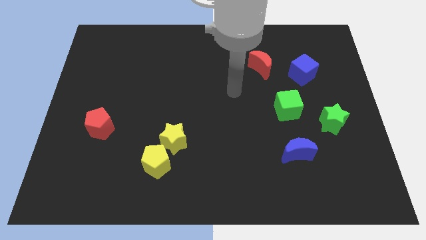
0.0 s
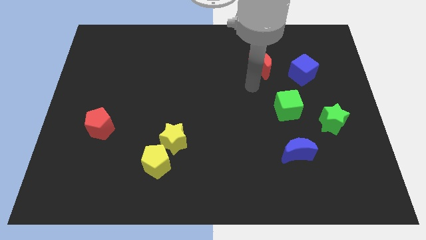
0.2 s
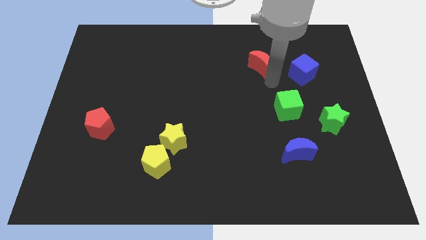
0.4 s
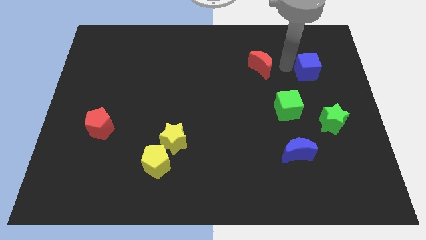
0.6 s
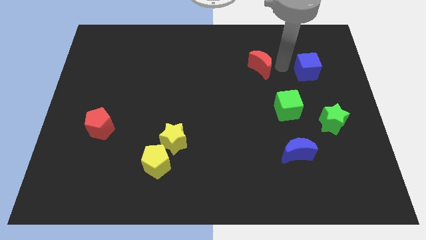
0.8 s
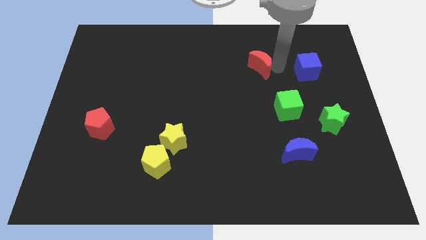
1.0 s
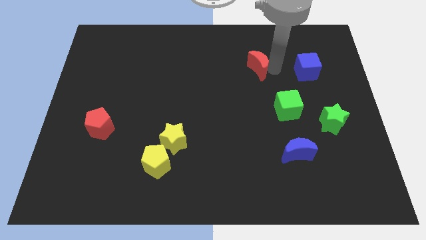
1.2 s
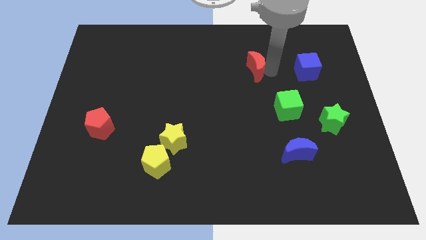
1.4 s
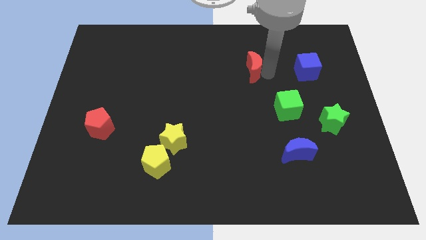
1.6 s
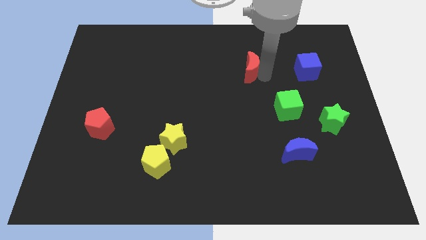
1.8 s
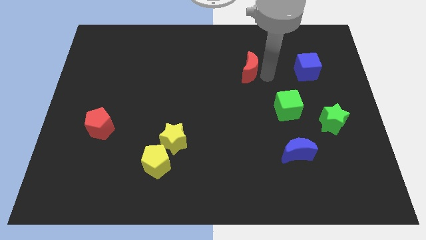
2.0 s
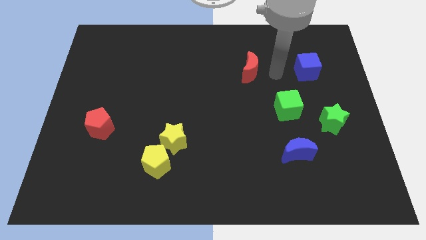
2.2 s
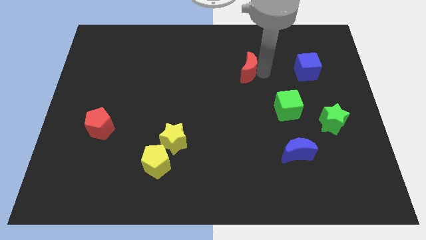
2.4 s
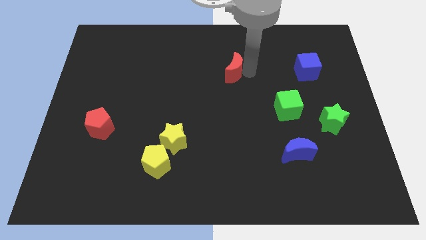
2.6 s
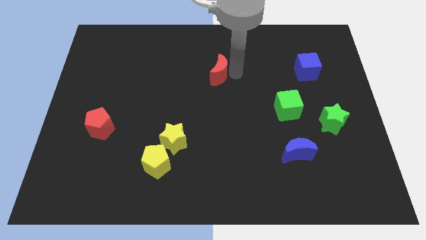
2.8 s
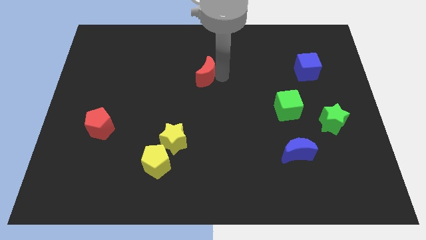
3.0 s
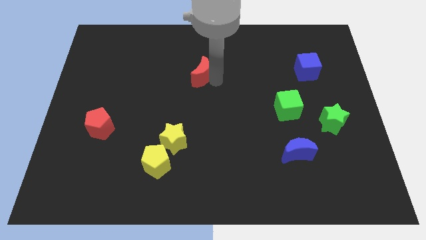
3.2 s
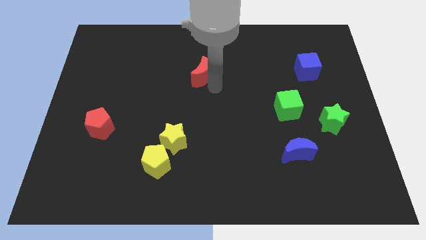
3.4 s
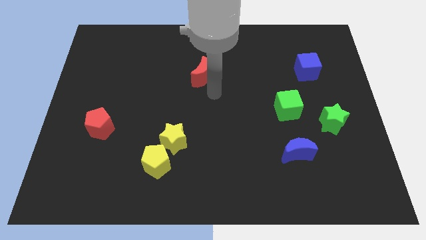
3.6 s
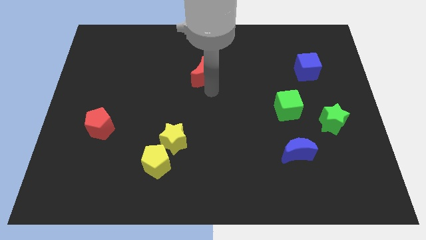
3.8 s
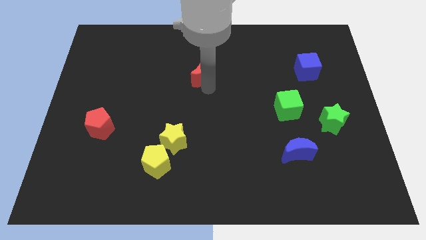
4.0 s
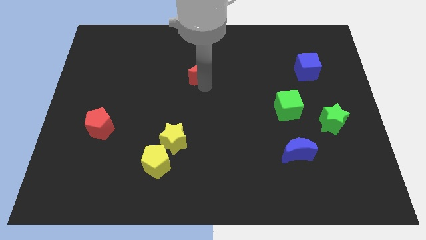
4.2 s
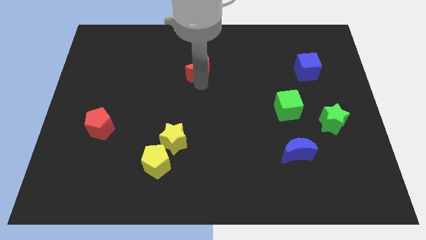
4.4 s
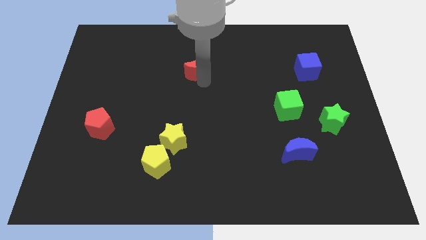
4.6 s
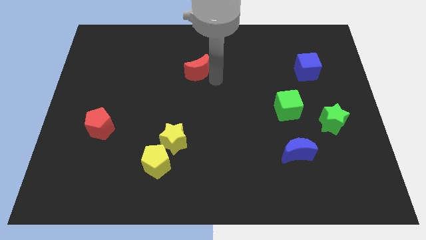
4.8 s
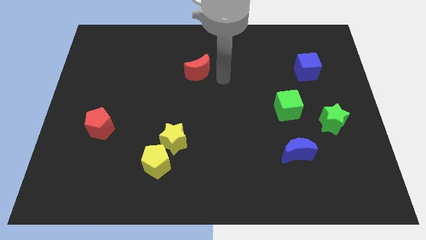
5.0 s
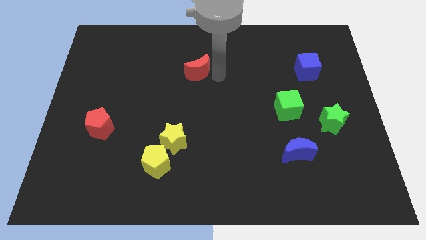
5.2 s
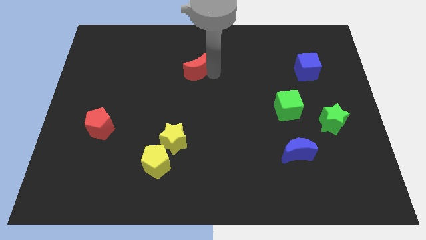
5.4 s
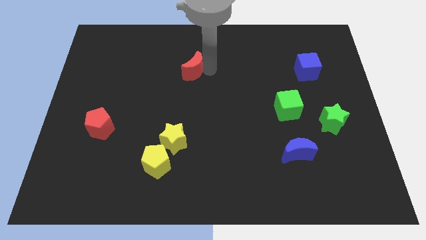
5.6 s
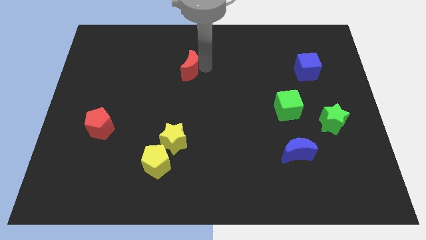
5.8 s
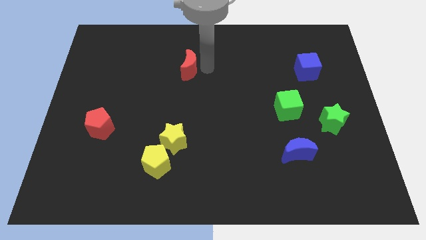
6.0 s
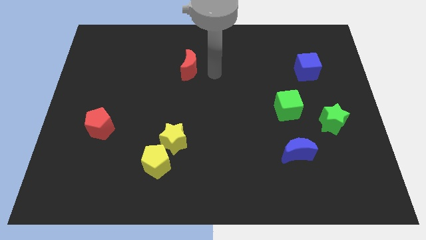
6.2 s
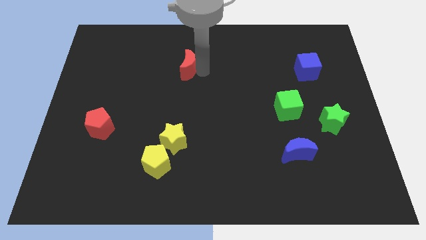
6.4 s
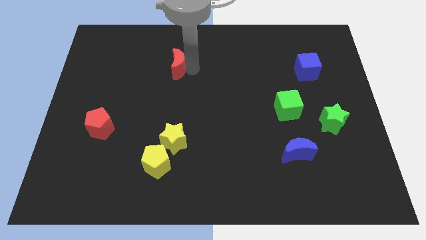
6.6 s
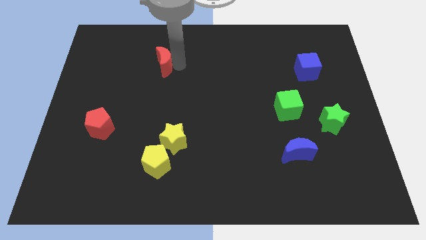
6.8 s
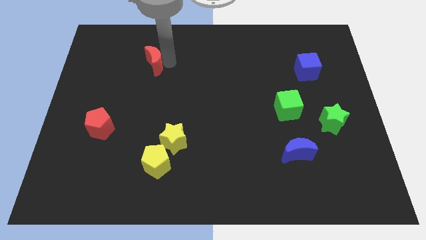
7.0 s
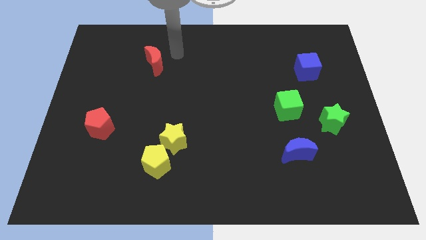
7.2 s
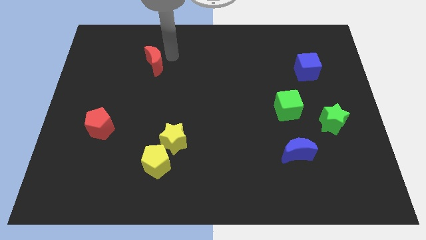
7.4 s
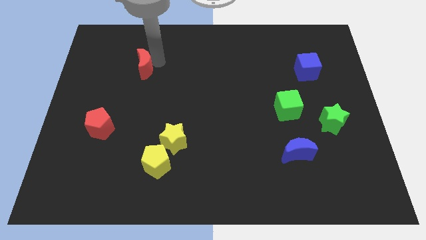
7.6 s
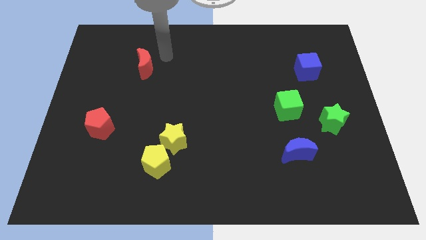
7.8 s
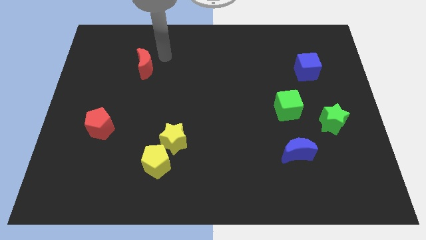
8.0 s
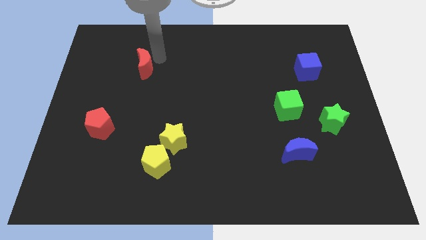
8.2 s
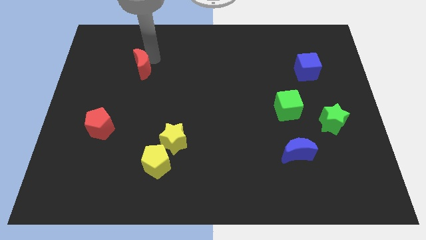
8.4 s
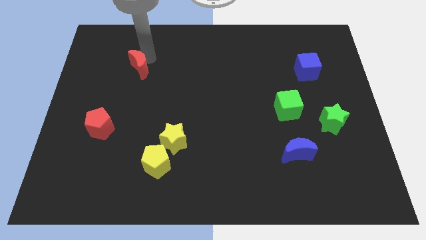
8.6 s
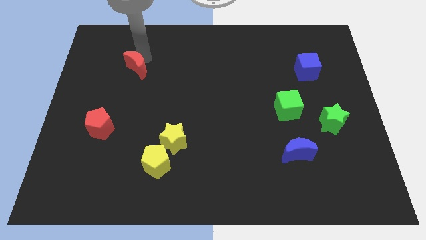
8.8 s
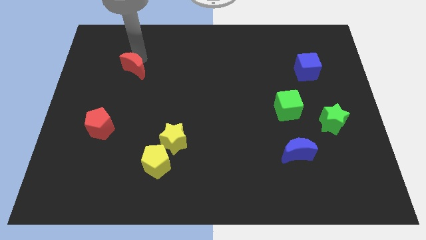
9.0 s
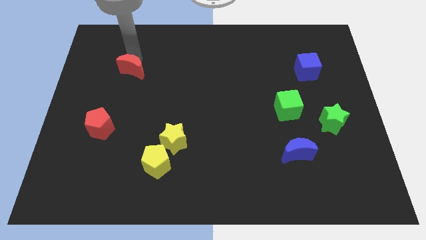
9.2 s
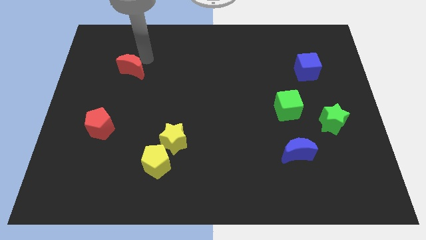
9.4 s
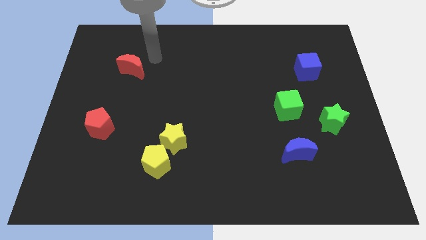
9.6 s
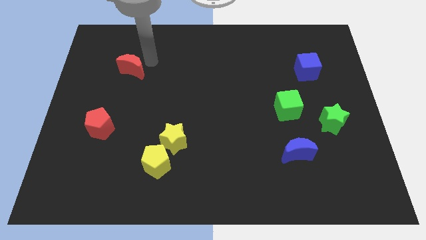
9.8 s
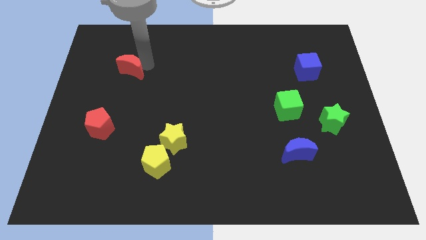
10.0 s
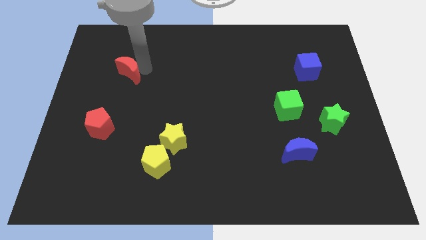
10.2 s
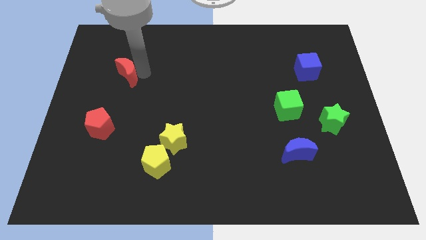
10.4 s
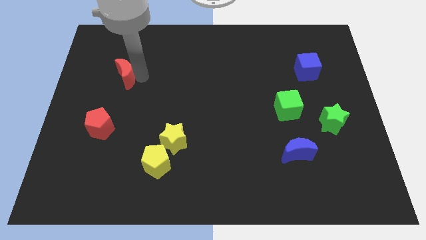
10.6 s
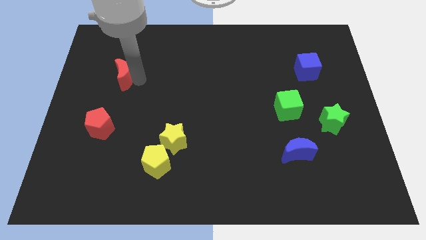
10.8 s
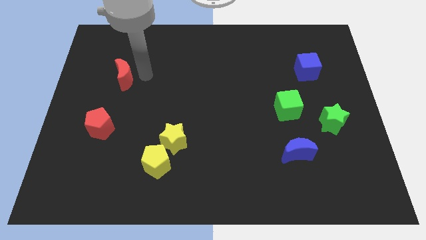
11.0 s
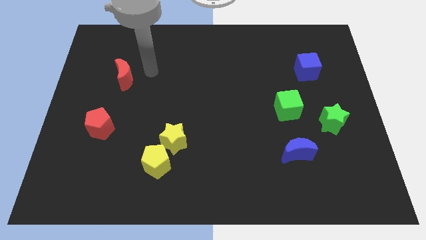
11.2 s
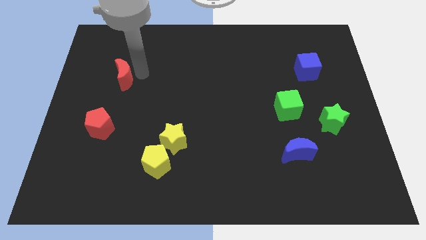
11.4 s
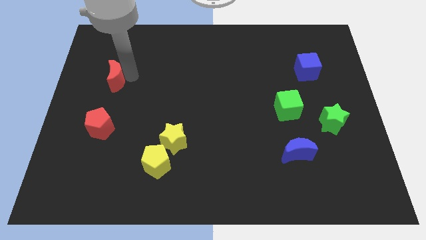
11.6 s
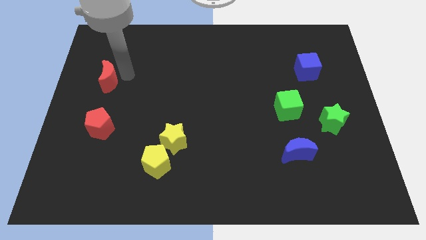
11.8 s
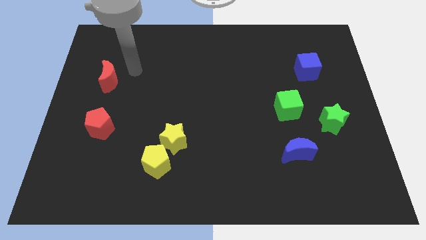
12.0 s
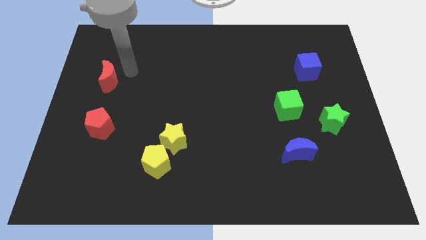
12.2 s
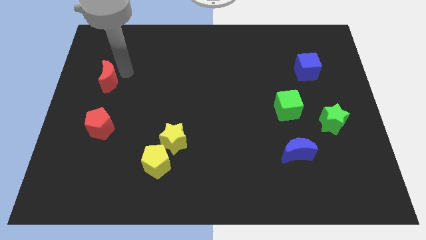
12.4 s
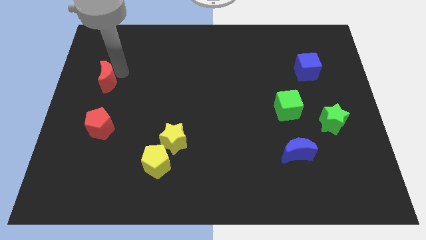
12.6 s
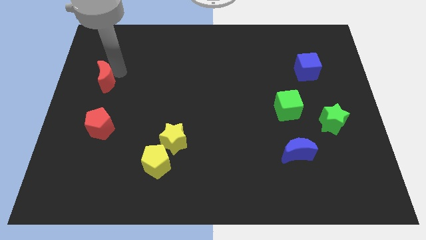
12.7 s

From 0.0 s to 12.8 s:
put the red moon to the left side of the board

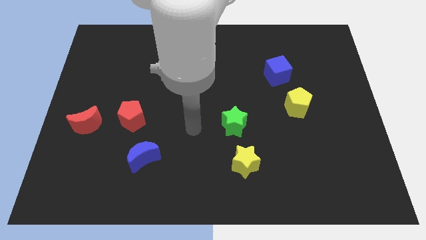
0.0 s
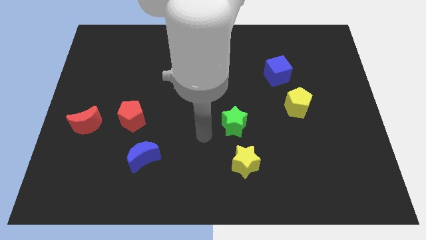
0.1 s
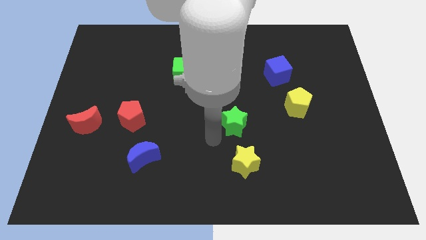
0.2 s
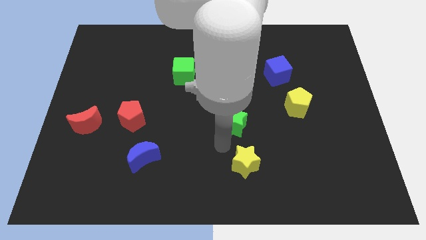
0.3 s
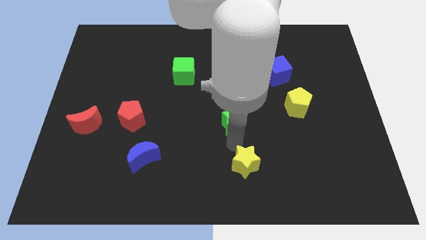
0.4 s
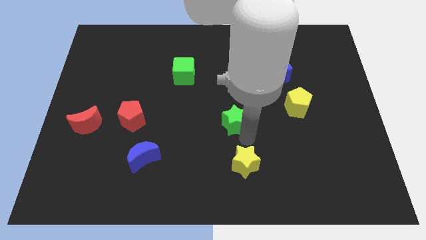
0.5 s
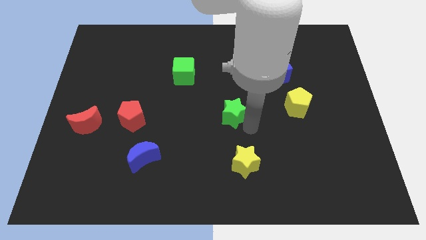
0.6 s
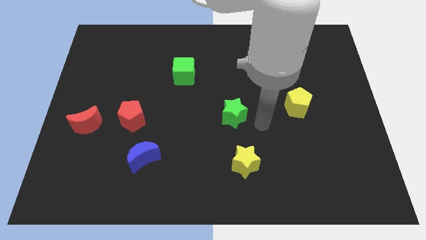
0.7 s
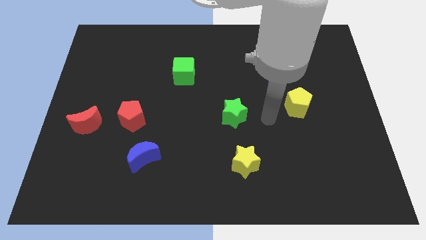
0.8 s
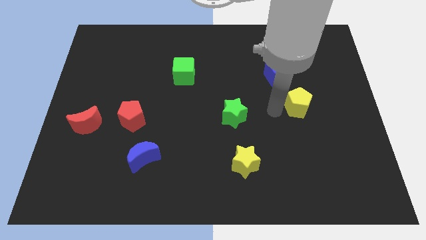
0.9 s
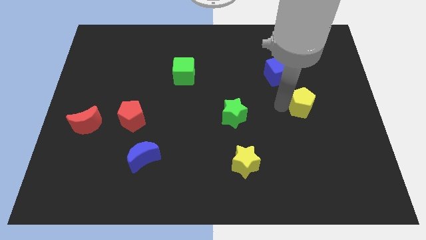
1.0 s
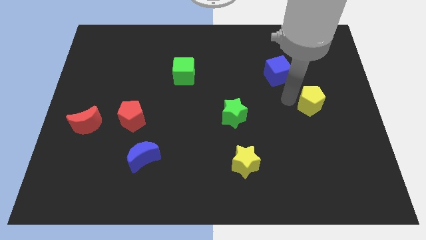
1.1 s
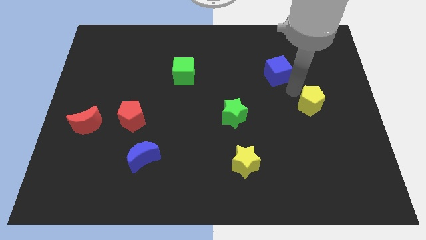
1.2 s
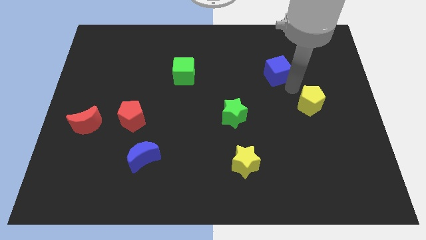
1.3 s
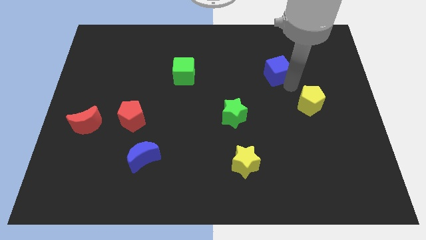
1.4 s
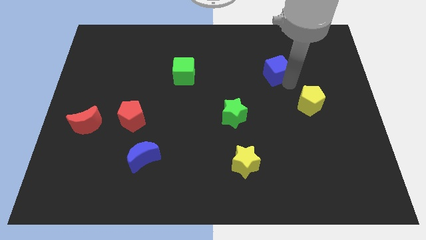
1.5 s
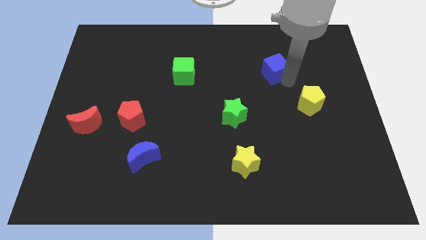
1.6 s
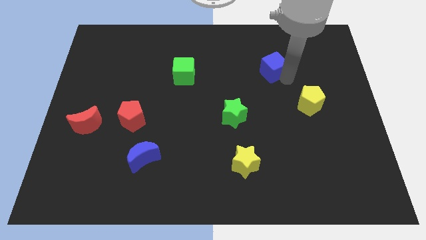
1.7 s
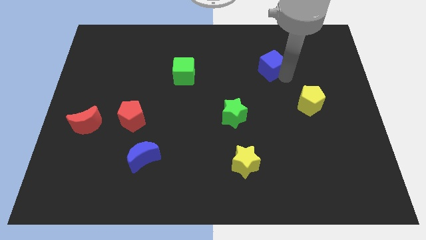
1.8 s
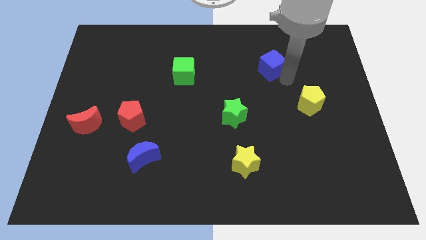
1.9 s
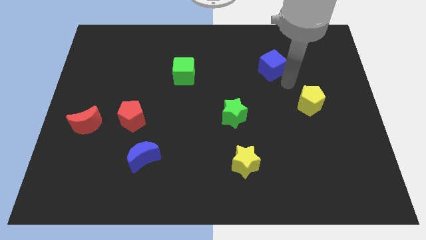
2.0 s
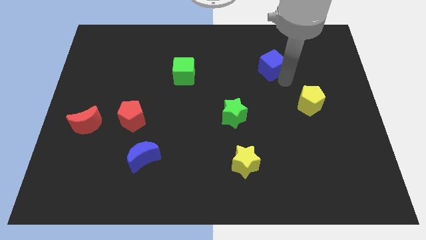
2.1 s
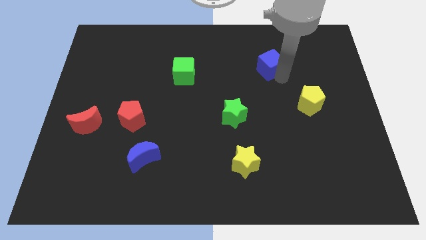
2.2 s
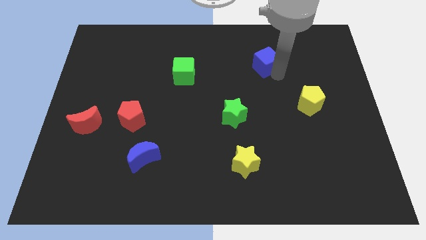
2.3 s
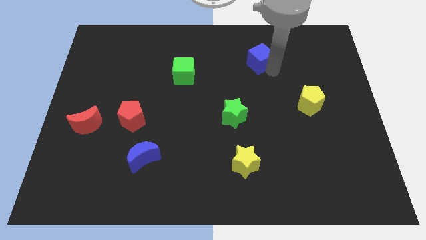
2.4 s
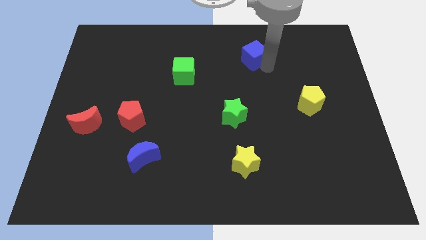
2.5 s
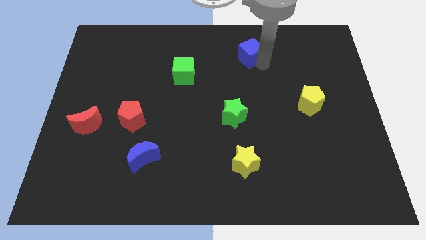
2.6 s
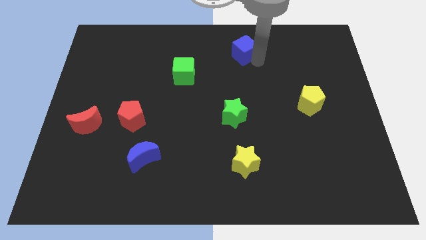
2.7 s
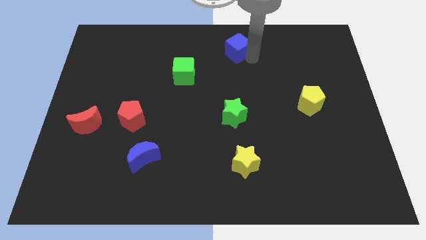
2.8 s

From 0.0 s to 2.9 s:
slide the blue cube to the towards your base
